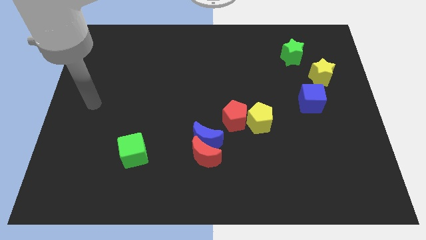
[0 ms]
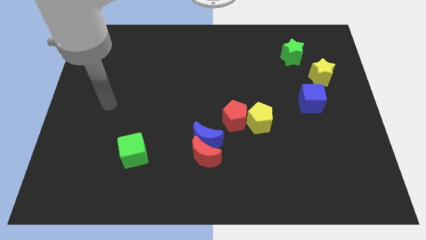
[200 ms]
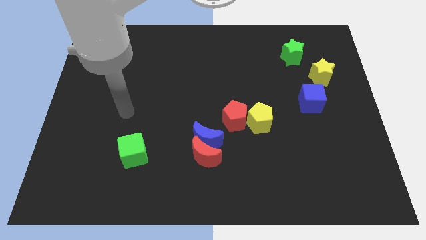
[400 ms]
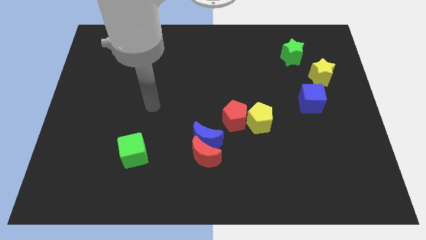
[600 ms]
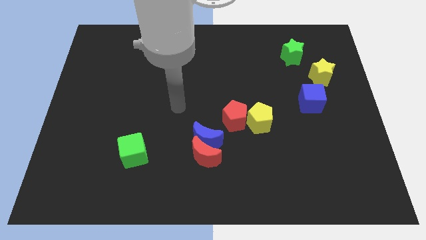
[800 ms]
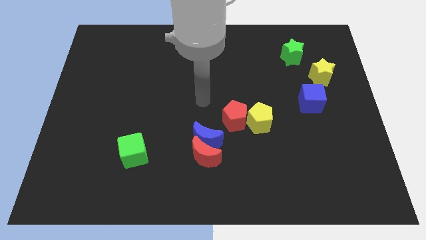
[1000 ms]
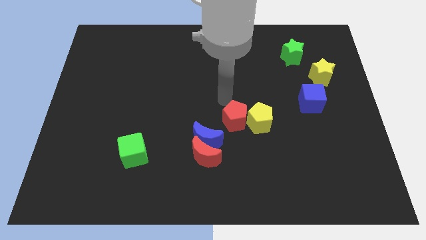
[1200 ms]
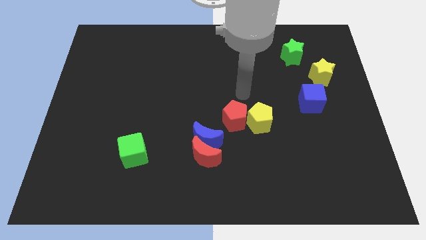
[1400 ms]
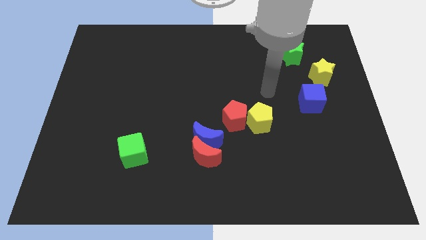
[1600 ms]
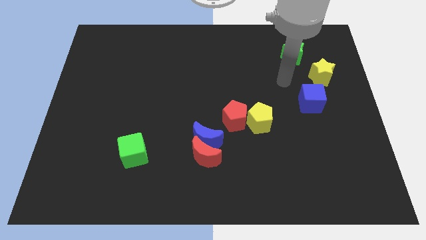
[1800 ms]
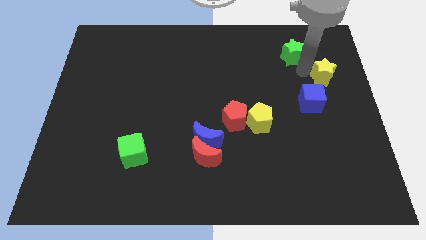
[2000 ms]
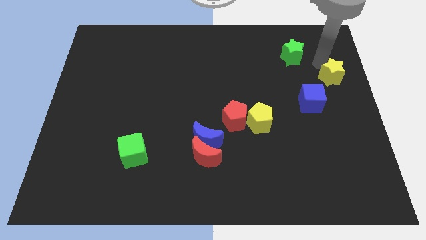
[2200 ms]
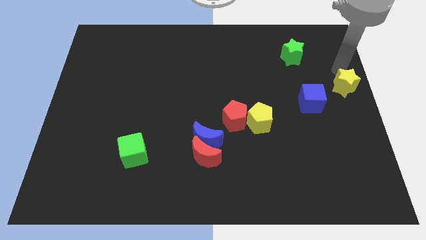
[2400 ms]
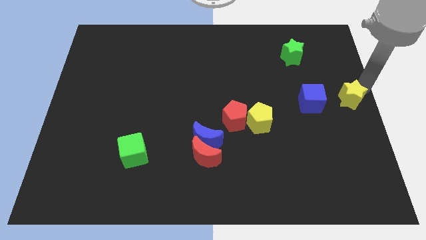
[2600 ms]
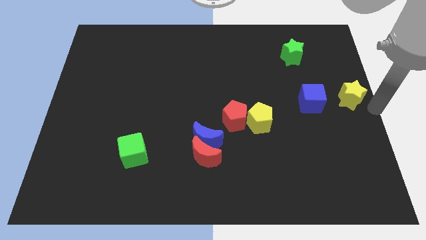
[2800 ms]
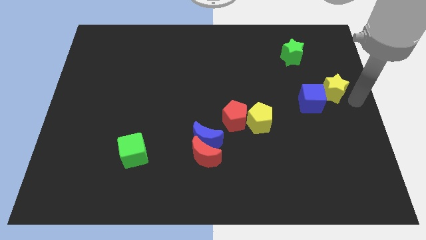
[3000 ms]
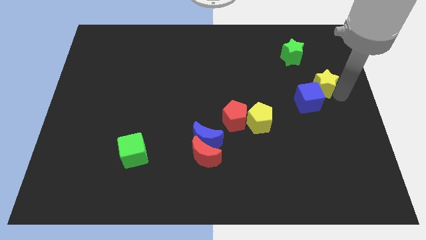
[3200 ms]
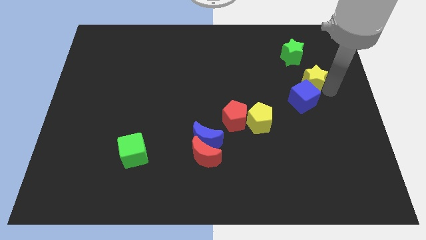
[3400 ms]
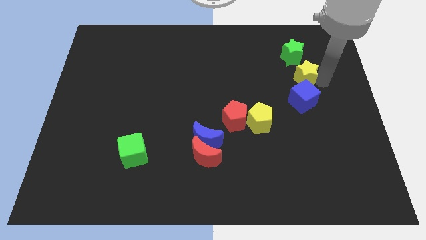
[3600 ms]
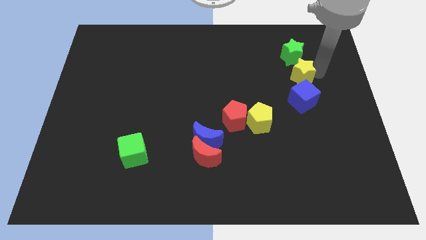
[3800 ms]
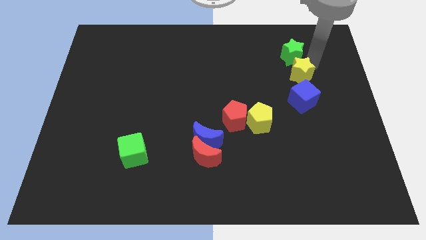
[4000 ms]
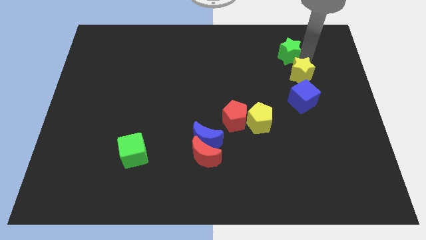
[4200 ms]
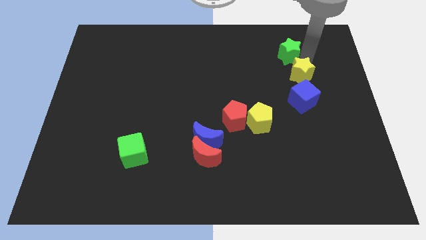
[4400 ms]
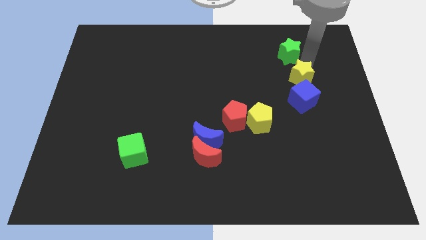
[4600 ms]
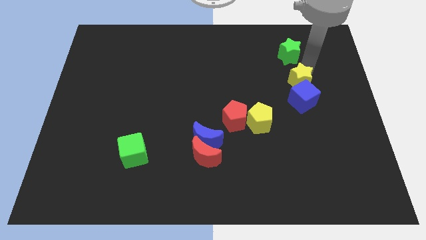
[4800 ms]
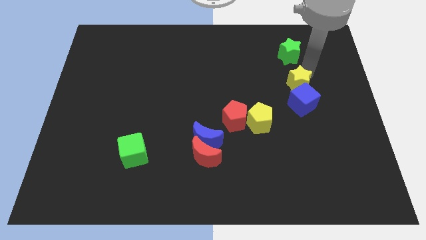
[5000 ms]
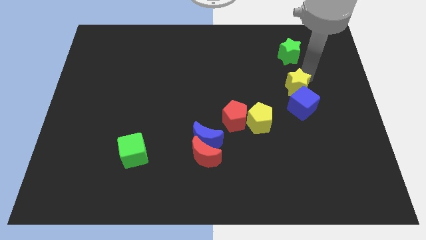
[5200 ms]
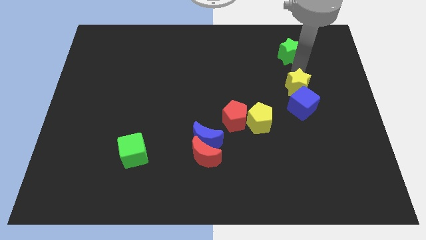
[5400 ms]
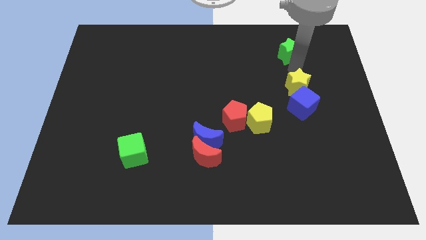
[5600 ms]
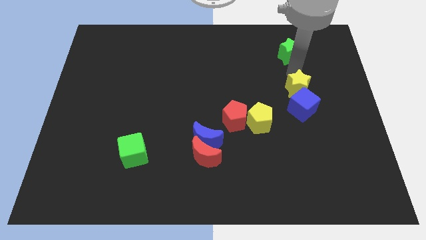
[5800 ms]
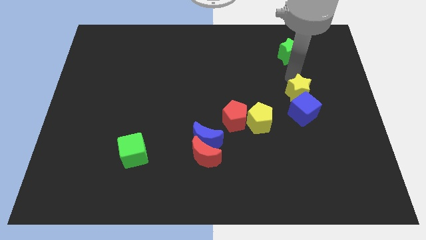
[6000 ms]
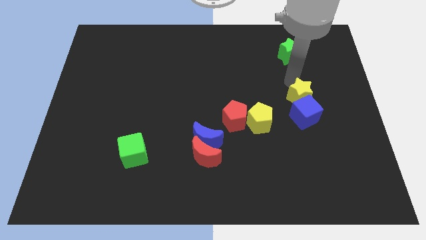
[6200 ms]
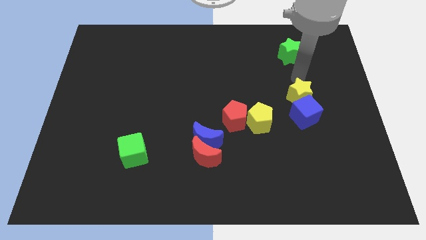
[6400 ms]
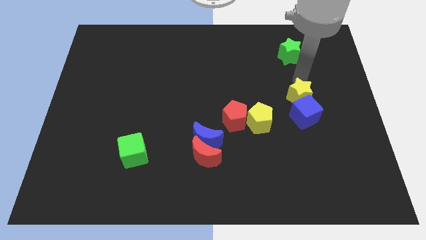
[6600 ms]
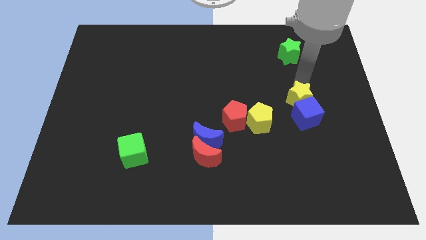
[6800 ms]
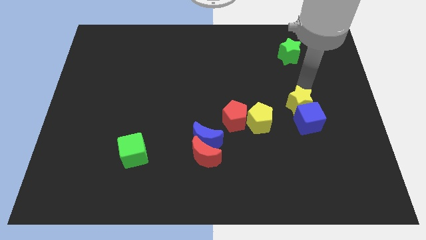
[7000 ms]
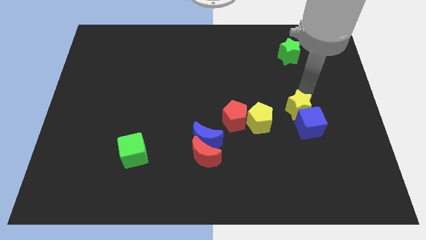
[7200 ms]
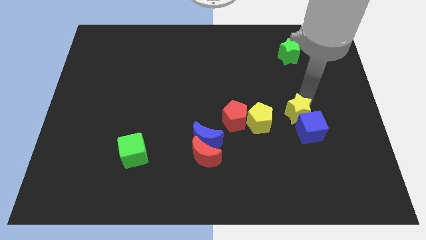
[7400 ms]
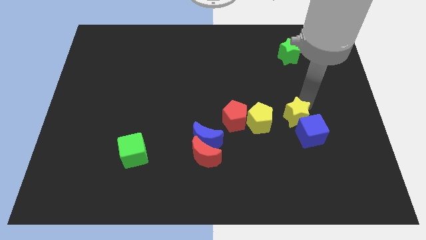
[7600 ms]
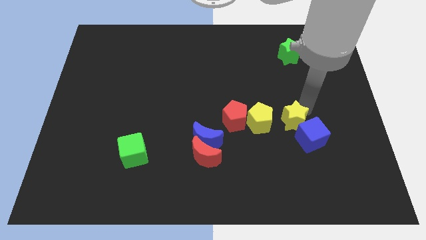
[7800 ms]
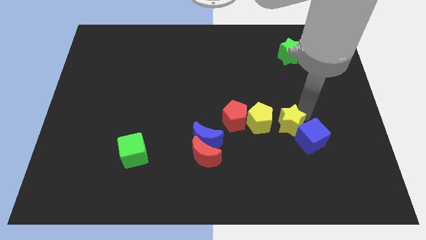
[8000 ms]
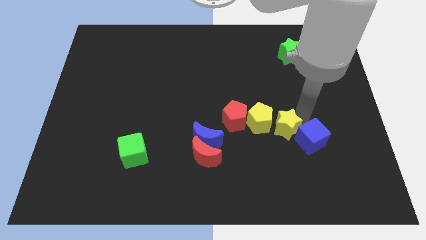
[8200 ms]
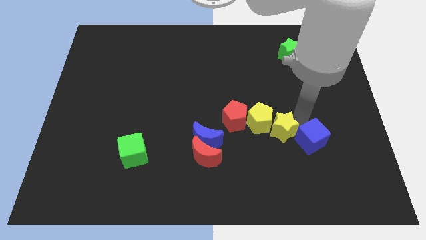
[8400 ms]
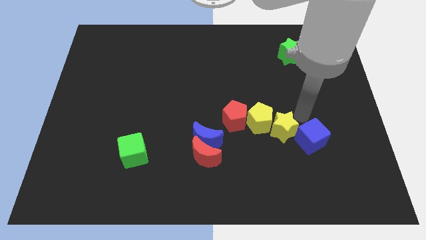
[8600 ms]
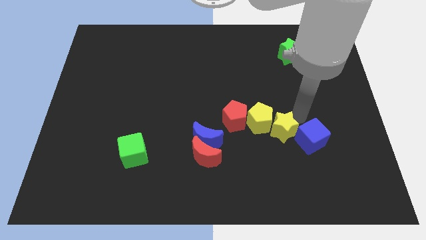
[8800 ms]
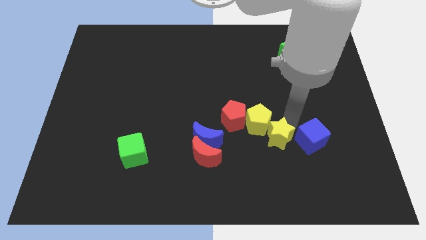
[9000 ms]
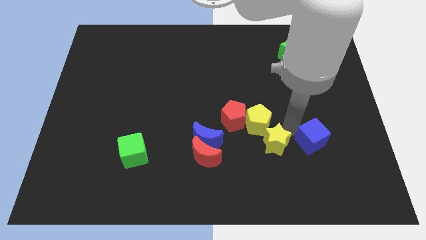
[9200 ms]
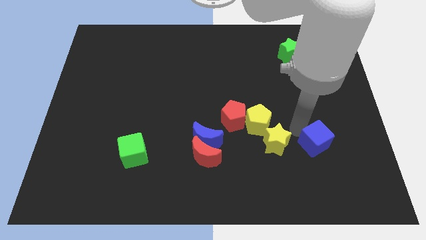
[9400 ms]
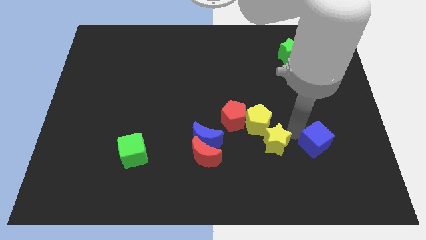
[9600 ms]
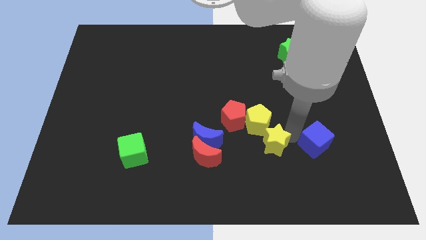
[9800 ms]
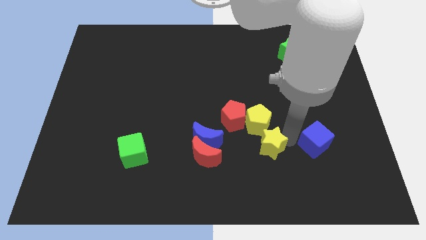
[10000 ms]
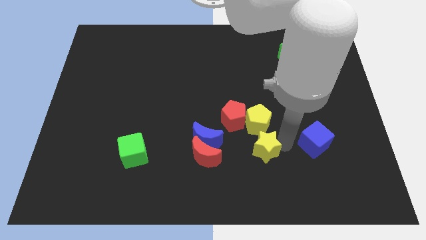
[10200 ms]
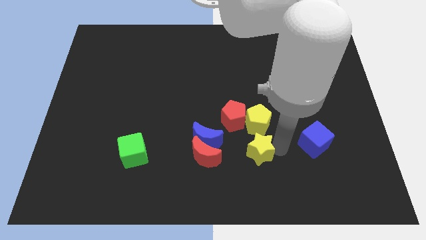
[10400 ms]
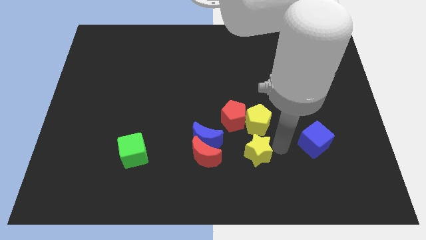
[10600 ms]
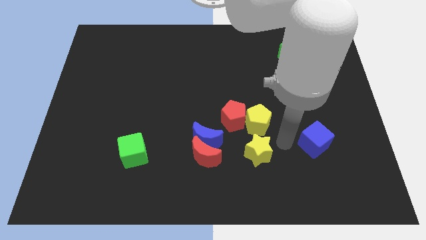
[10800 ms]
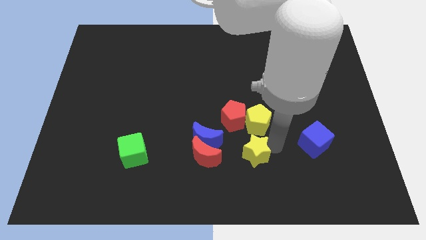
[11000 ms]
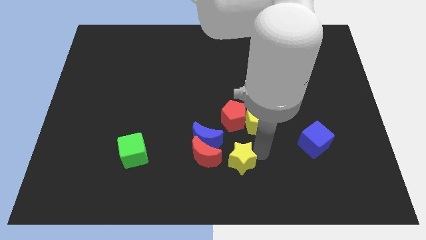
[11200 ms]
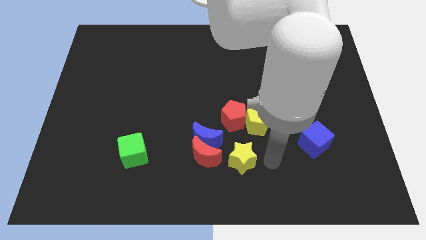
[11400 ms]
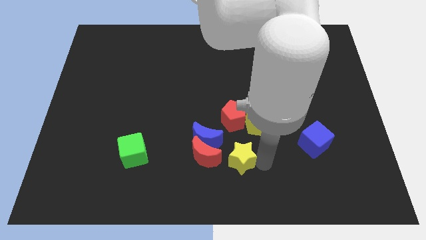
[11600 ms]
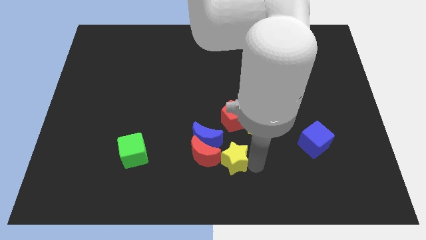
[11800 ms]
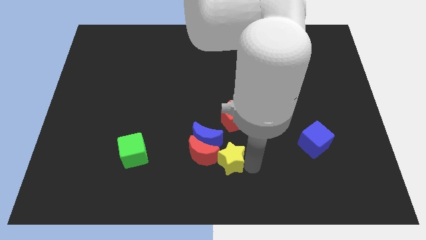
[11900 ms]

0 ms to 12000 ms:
push the yellow star close to the red moon

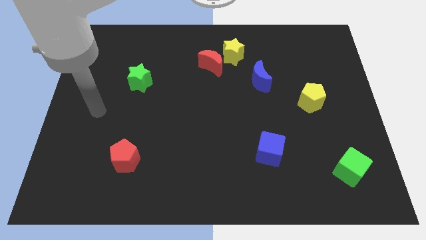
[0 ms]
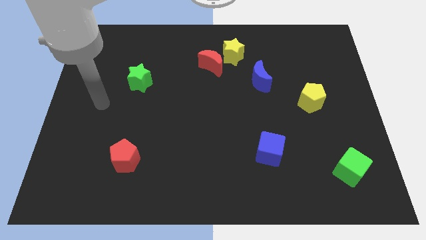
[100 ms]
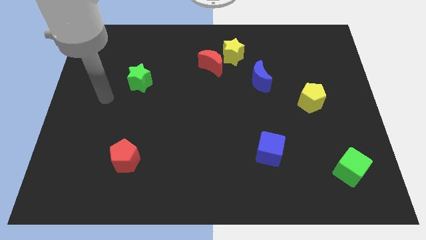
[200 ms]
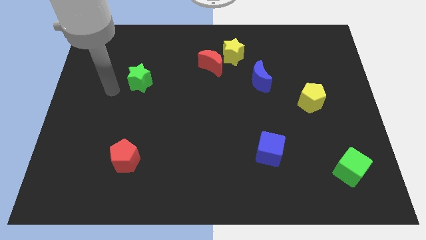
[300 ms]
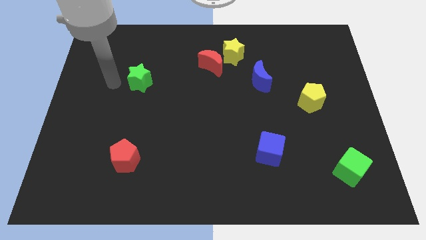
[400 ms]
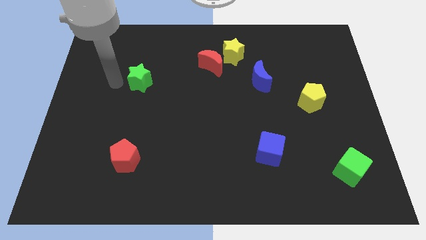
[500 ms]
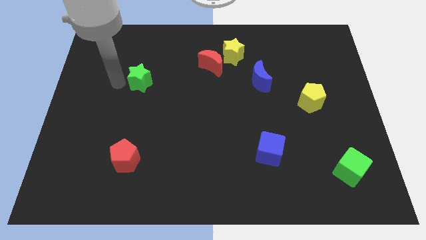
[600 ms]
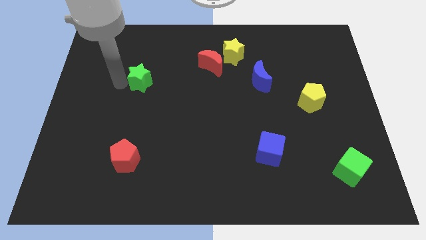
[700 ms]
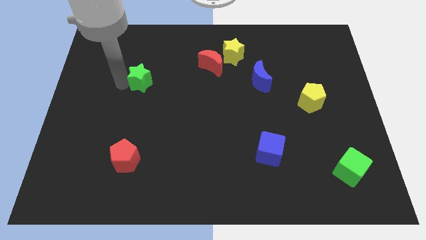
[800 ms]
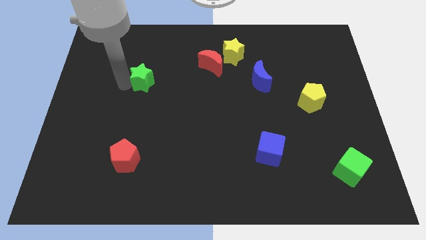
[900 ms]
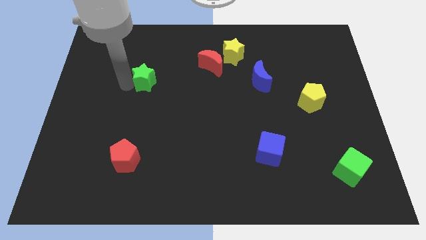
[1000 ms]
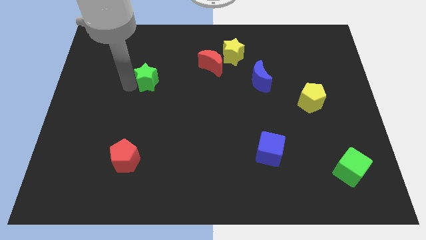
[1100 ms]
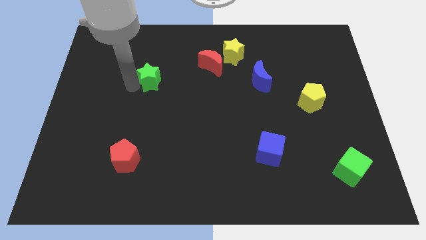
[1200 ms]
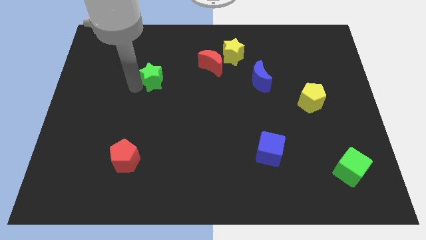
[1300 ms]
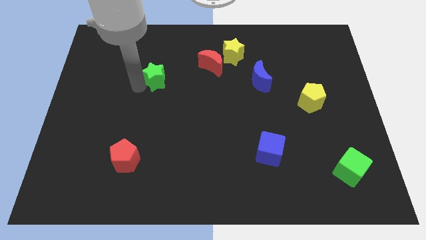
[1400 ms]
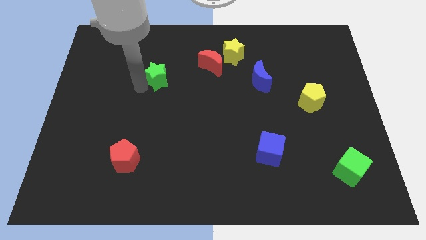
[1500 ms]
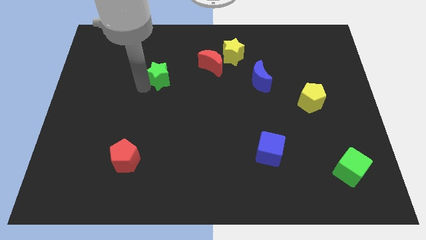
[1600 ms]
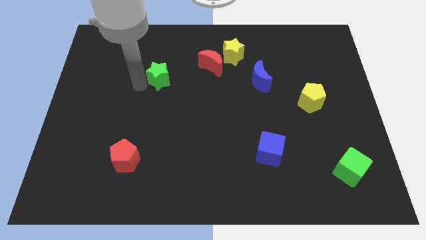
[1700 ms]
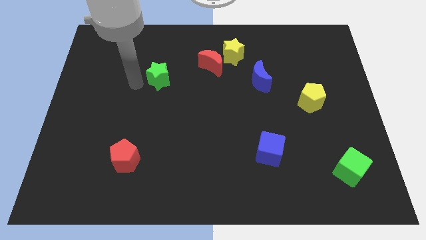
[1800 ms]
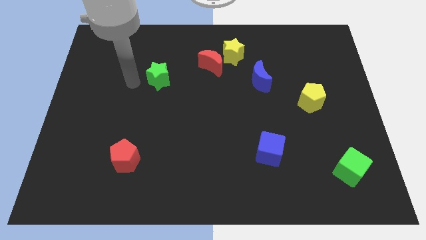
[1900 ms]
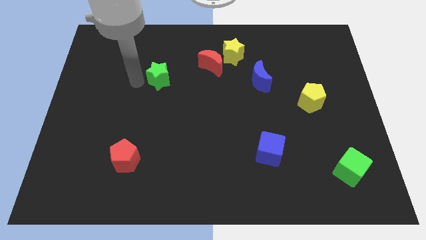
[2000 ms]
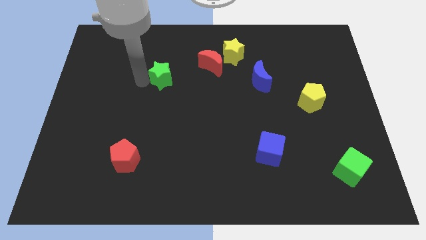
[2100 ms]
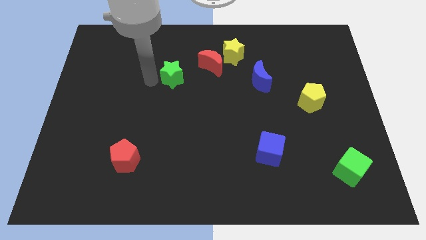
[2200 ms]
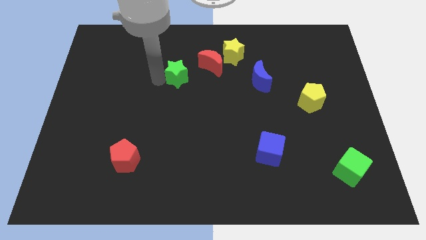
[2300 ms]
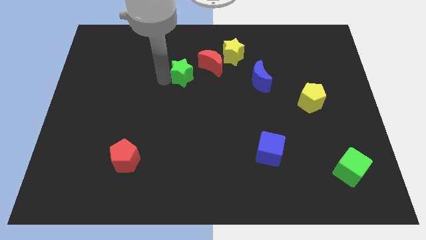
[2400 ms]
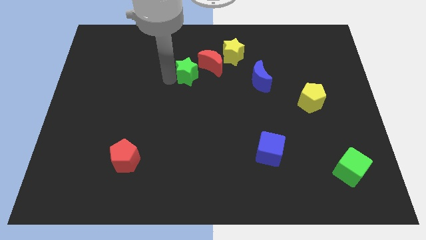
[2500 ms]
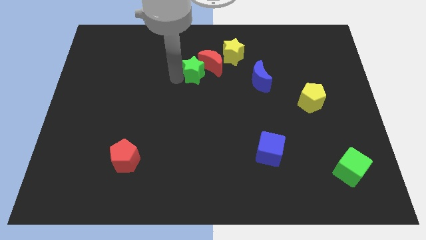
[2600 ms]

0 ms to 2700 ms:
move the green star towards the red moon
